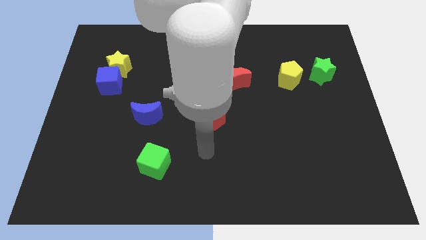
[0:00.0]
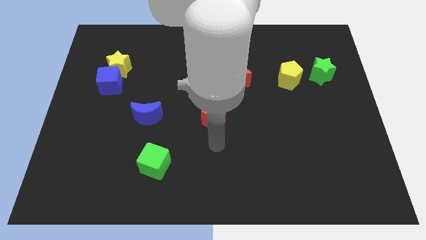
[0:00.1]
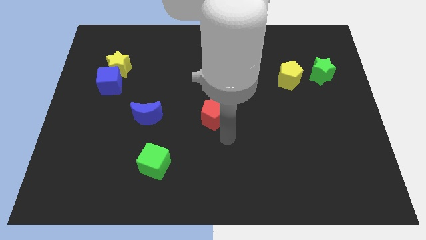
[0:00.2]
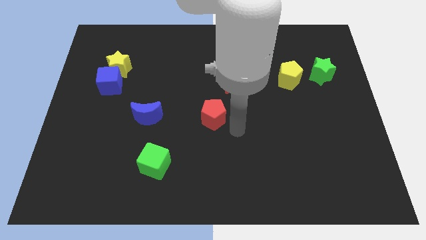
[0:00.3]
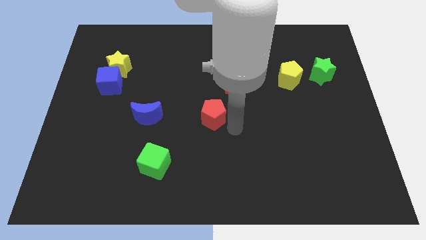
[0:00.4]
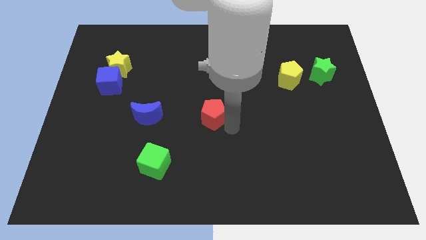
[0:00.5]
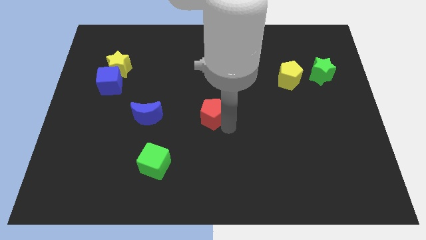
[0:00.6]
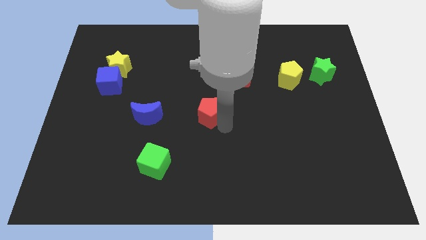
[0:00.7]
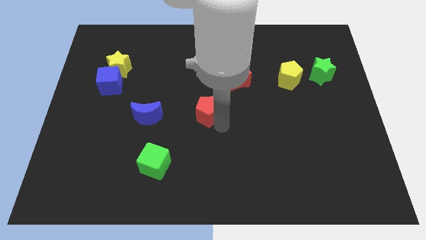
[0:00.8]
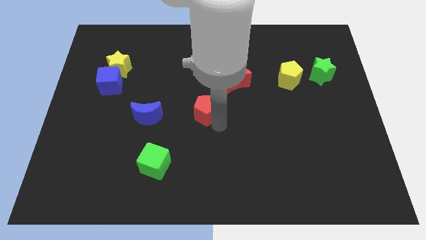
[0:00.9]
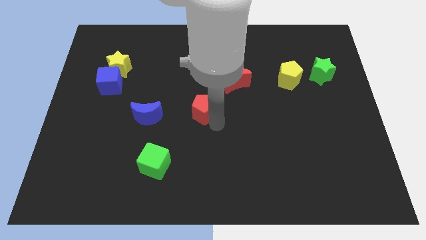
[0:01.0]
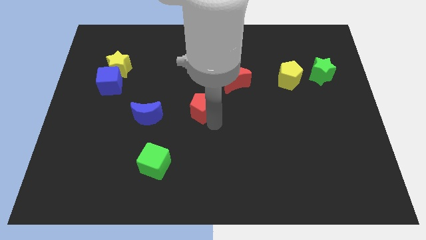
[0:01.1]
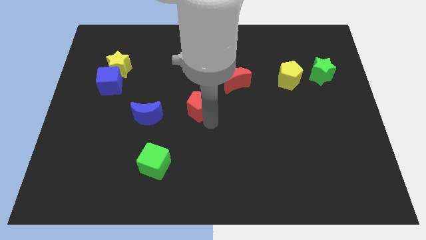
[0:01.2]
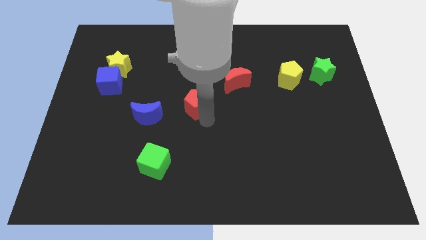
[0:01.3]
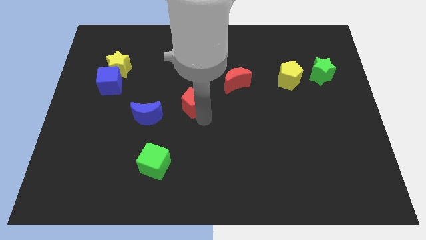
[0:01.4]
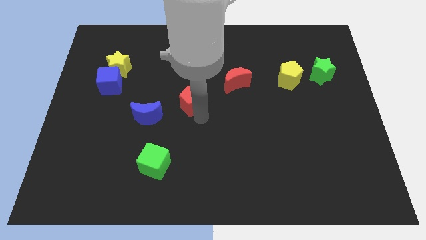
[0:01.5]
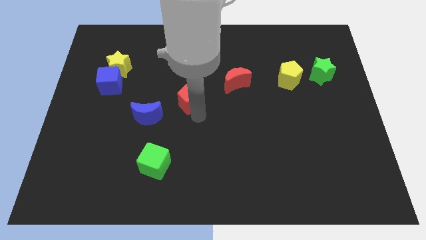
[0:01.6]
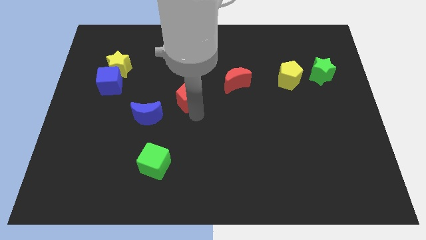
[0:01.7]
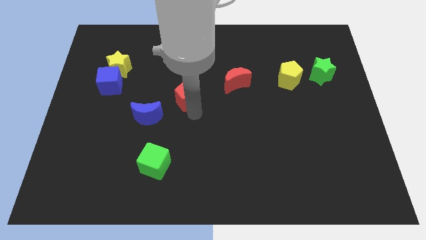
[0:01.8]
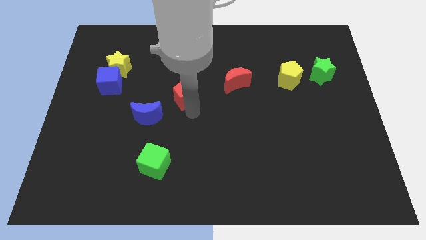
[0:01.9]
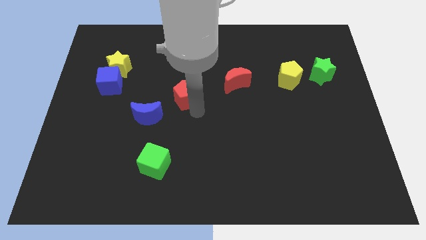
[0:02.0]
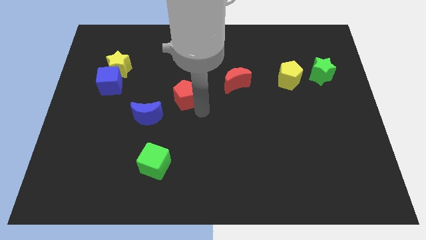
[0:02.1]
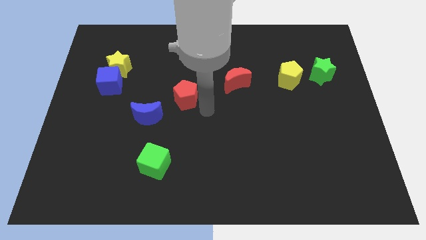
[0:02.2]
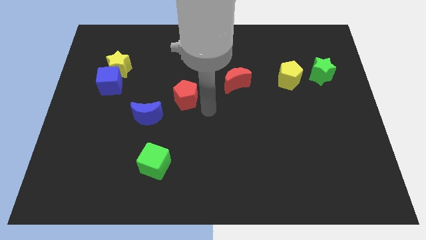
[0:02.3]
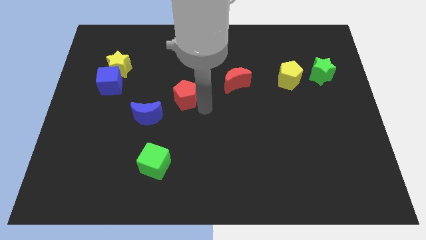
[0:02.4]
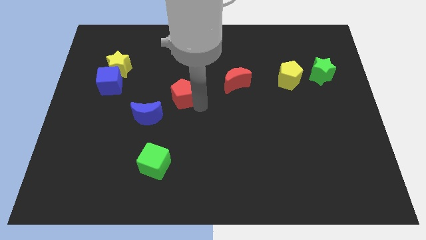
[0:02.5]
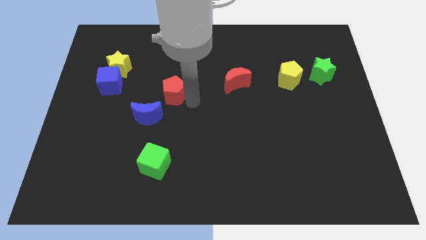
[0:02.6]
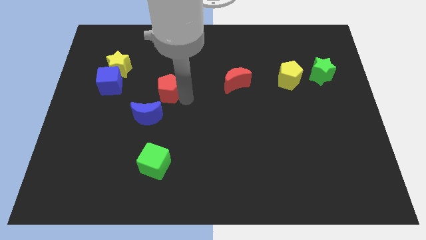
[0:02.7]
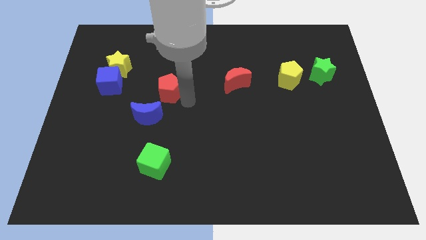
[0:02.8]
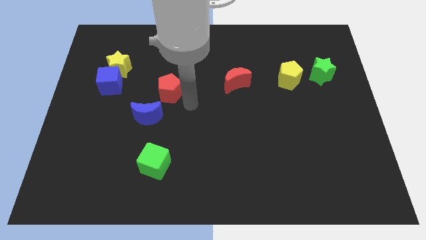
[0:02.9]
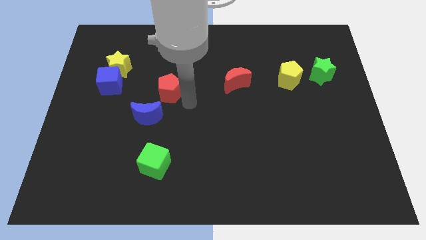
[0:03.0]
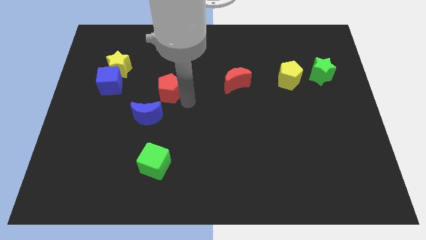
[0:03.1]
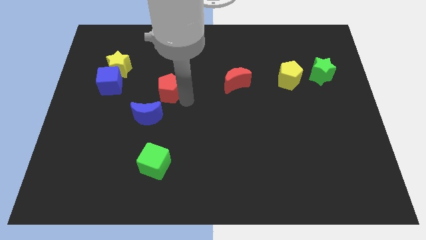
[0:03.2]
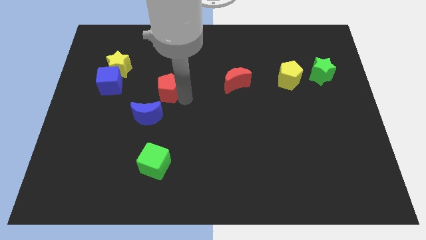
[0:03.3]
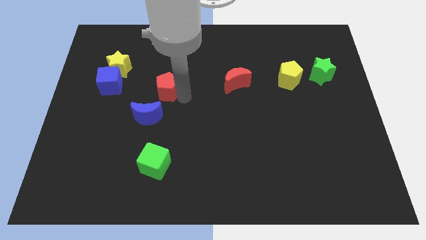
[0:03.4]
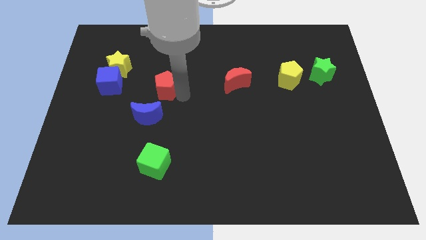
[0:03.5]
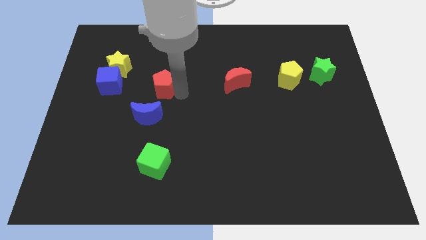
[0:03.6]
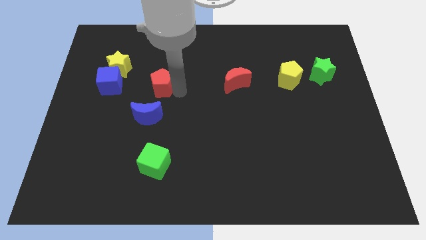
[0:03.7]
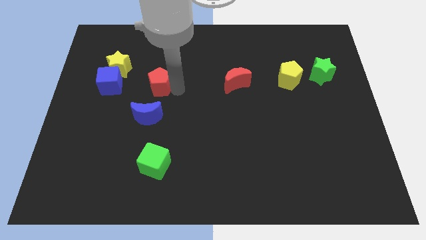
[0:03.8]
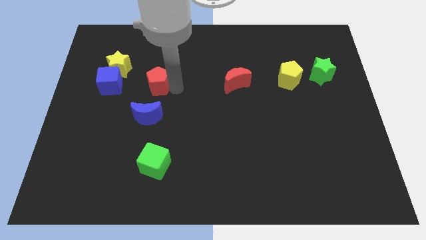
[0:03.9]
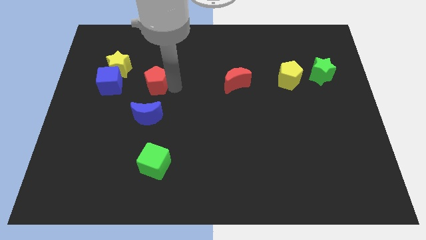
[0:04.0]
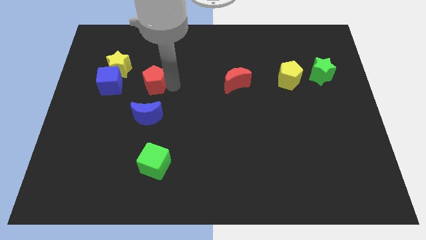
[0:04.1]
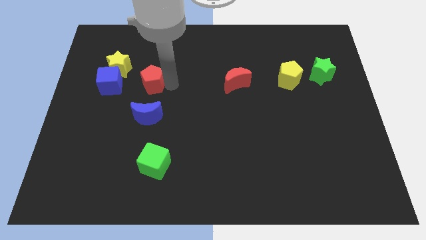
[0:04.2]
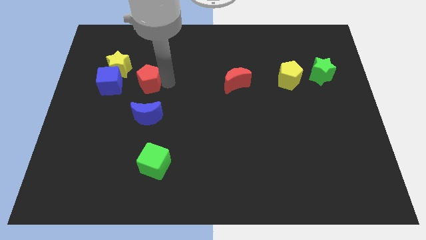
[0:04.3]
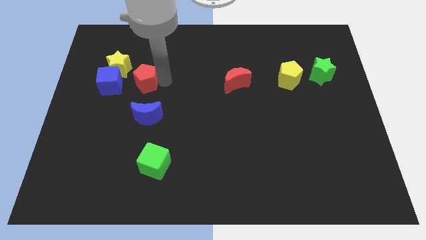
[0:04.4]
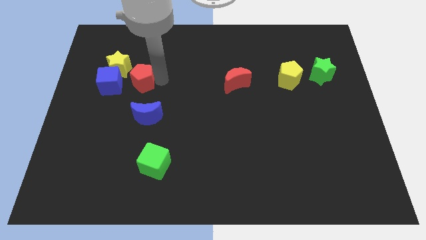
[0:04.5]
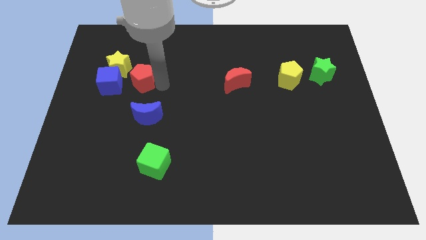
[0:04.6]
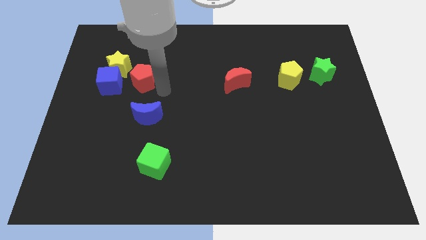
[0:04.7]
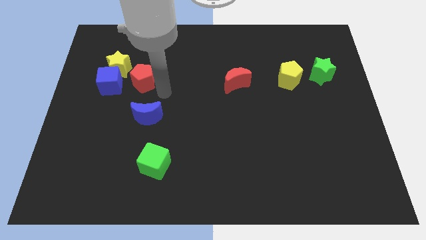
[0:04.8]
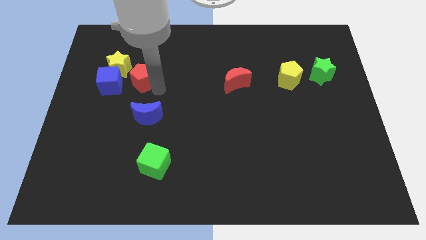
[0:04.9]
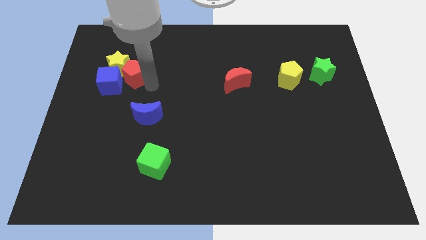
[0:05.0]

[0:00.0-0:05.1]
slide the red pentagon close to the yellow star

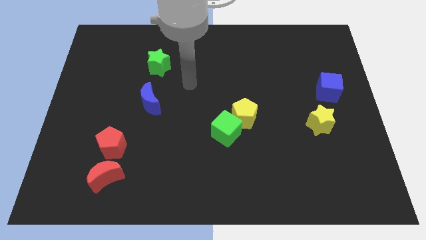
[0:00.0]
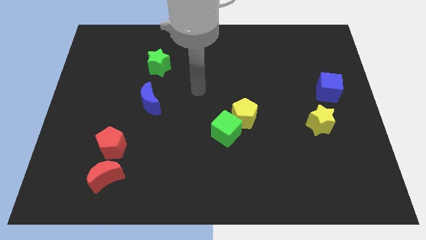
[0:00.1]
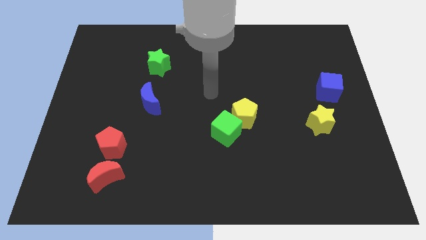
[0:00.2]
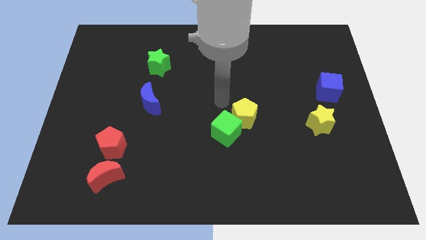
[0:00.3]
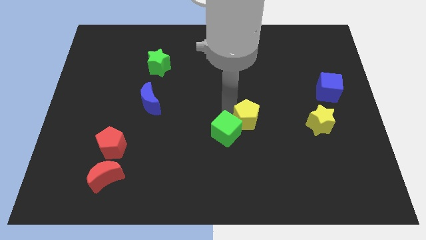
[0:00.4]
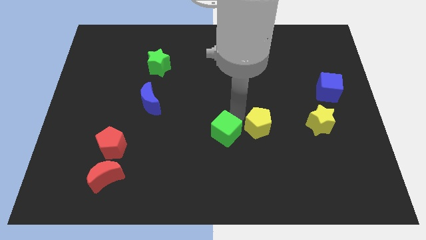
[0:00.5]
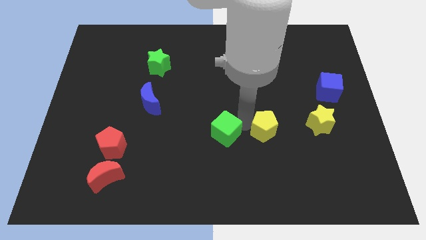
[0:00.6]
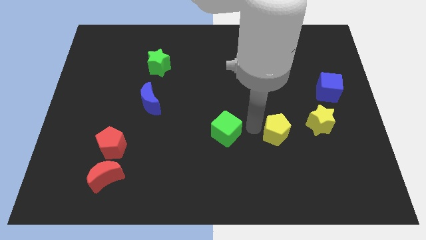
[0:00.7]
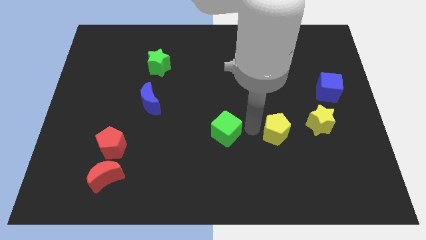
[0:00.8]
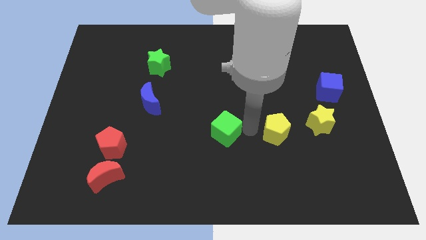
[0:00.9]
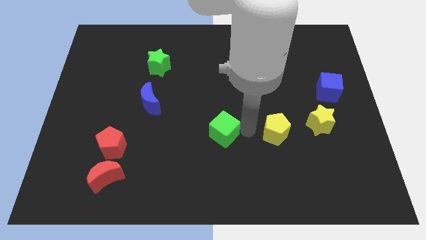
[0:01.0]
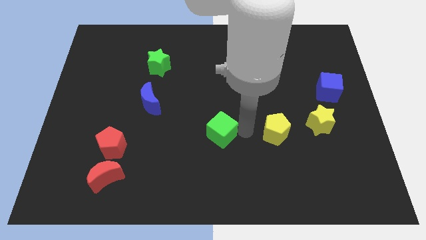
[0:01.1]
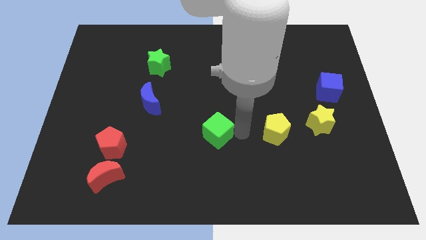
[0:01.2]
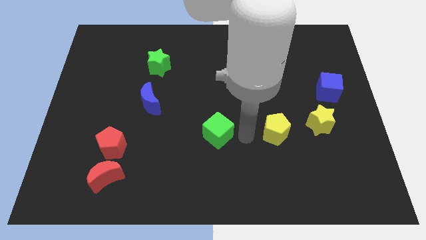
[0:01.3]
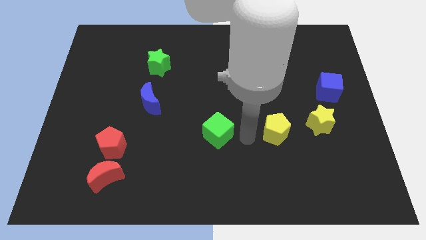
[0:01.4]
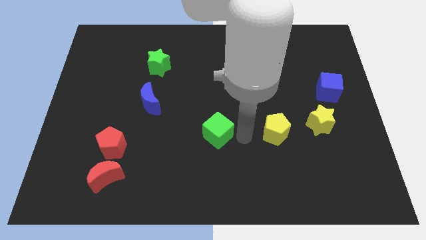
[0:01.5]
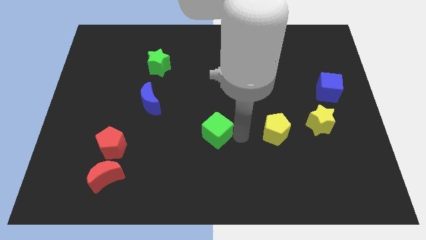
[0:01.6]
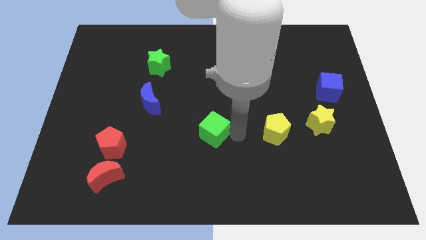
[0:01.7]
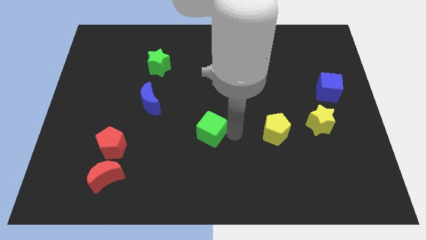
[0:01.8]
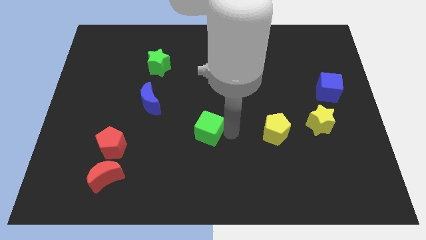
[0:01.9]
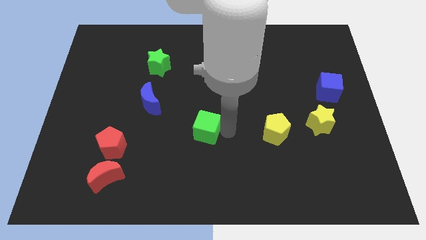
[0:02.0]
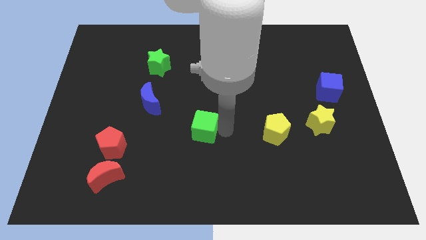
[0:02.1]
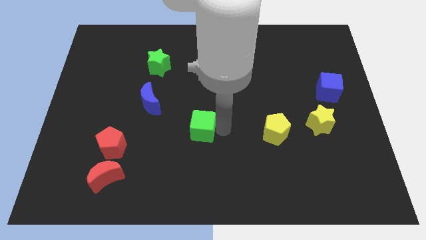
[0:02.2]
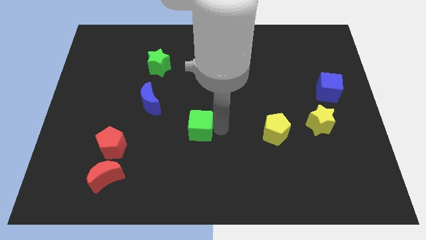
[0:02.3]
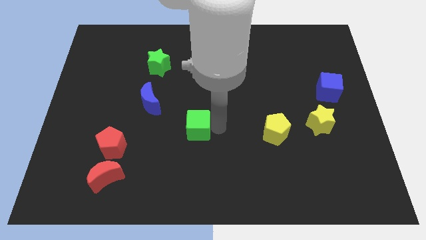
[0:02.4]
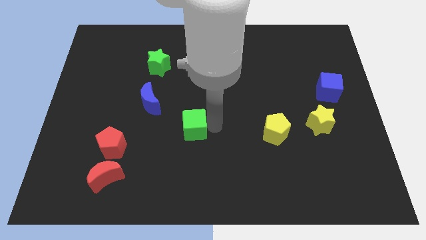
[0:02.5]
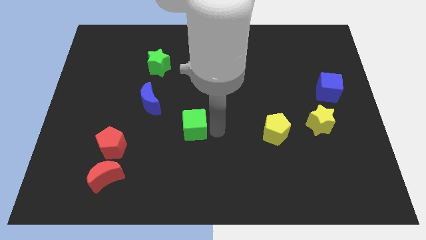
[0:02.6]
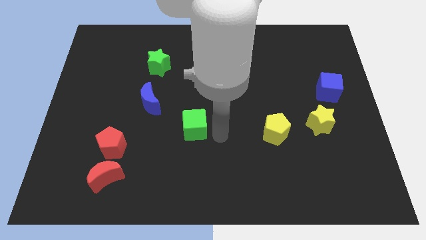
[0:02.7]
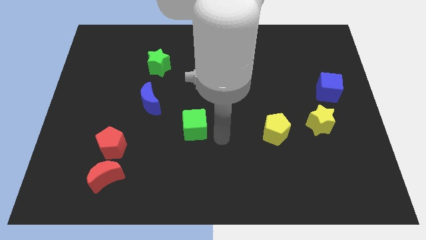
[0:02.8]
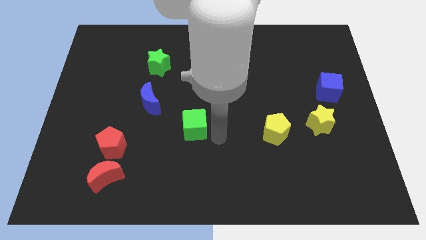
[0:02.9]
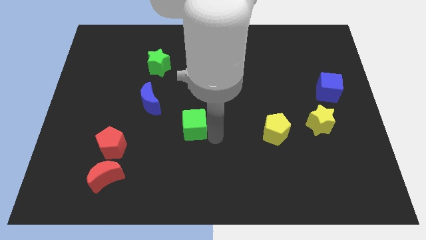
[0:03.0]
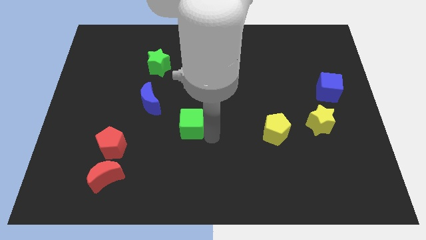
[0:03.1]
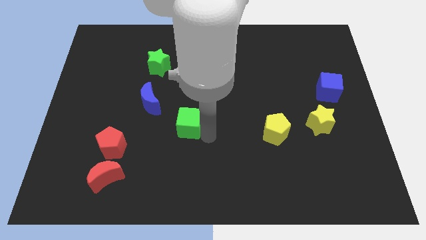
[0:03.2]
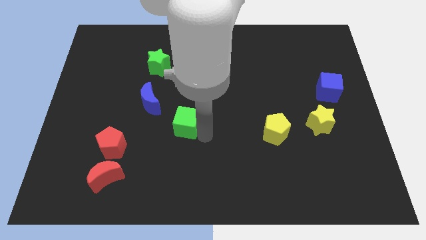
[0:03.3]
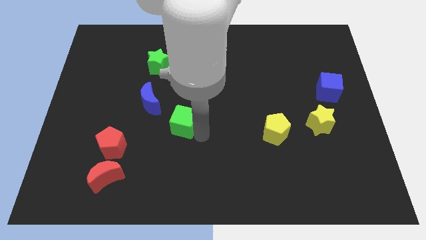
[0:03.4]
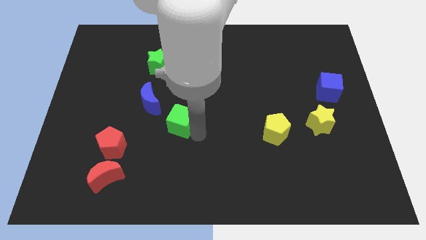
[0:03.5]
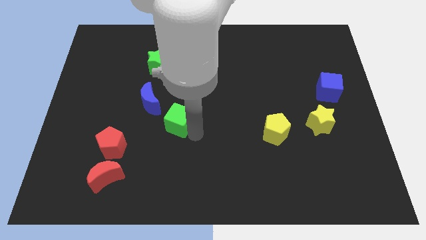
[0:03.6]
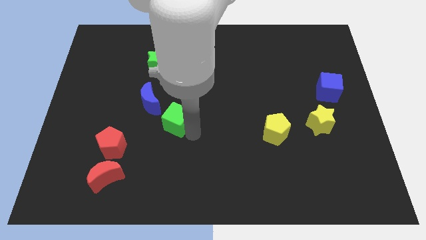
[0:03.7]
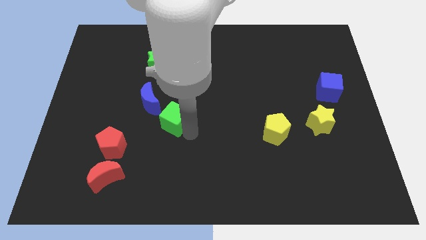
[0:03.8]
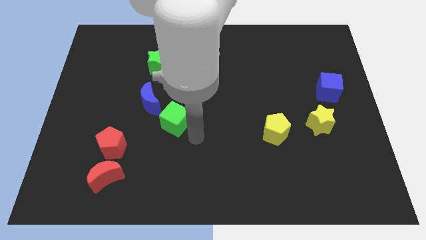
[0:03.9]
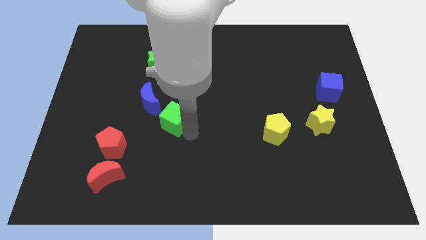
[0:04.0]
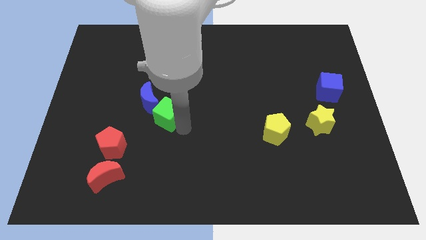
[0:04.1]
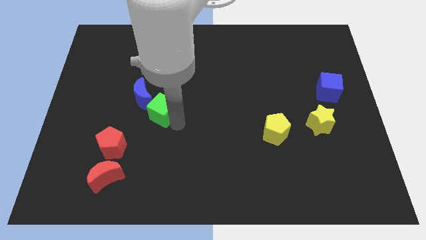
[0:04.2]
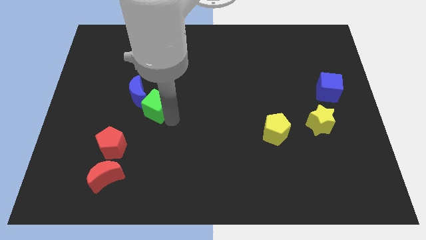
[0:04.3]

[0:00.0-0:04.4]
put the green cube next to the blue moon
